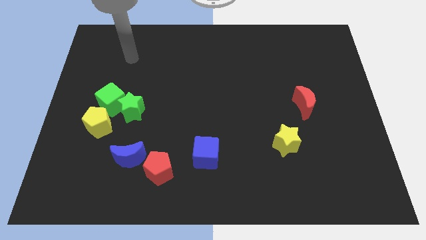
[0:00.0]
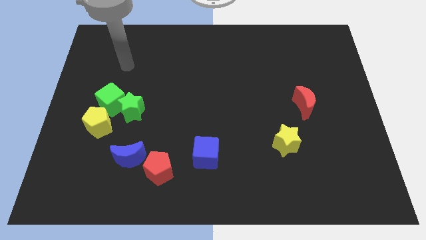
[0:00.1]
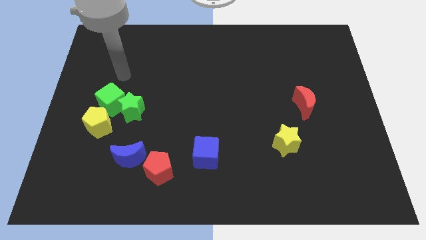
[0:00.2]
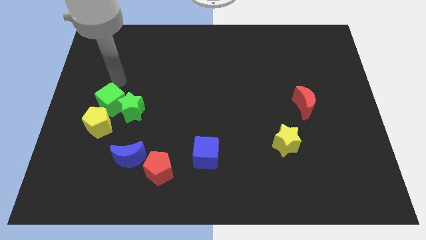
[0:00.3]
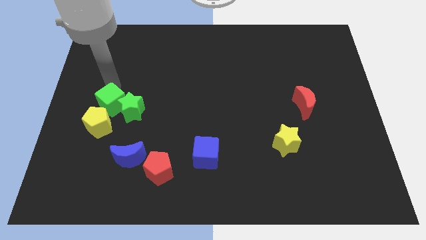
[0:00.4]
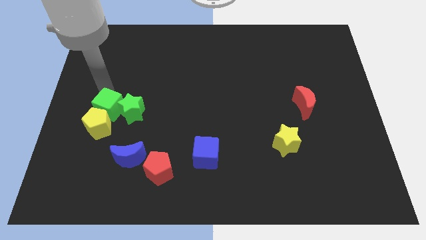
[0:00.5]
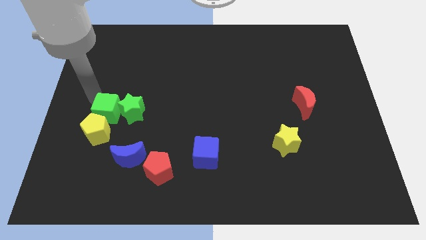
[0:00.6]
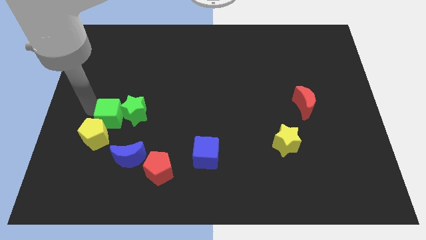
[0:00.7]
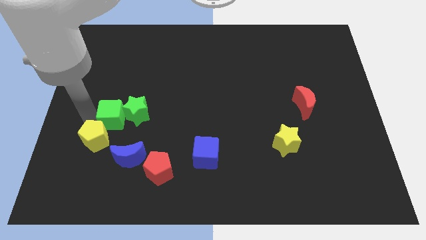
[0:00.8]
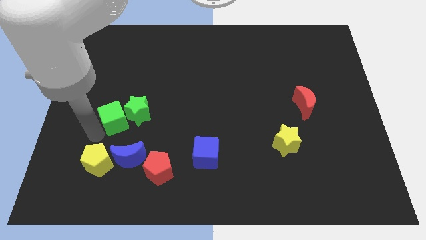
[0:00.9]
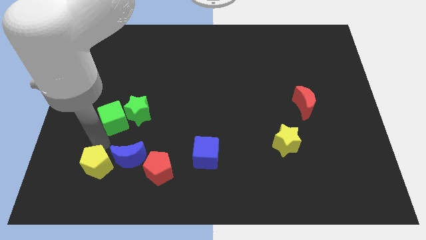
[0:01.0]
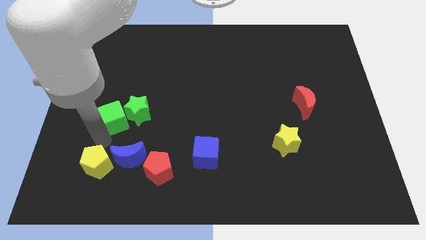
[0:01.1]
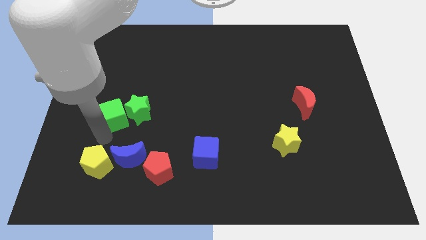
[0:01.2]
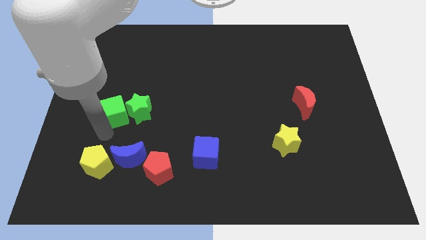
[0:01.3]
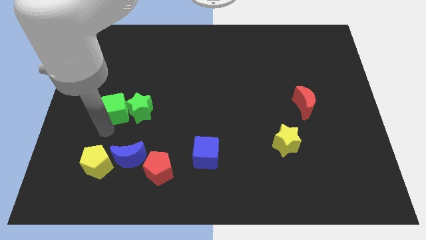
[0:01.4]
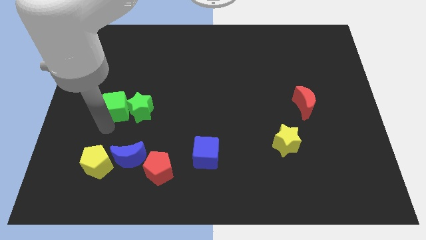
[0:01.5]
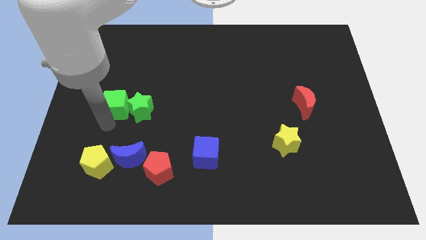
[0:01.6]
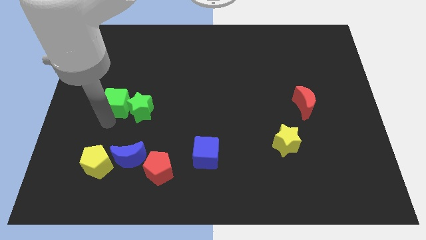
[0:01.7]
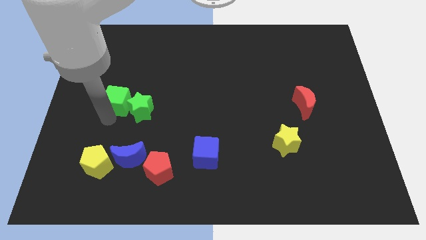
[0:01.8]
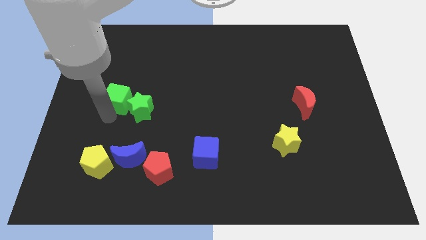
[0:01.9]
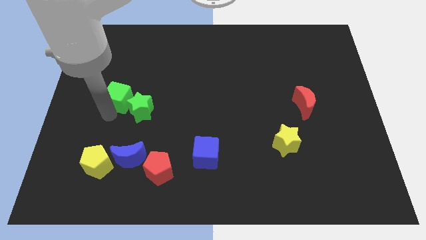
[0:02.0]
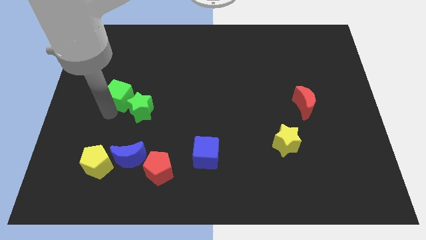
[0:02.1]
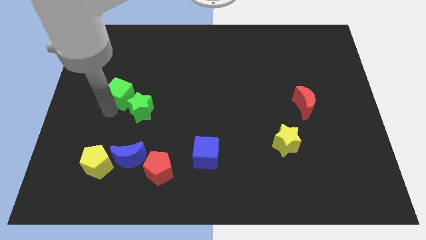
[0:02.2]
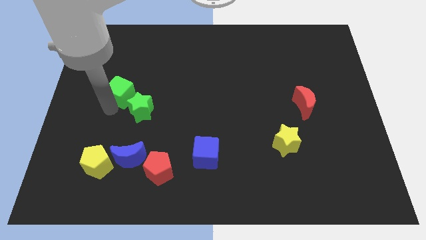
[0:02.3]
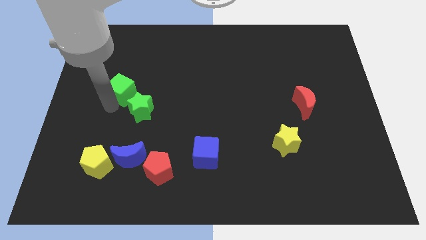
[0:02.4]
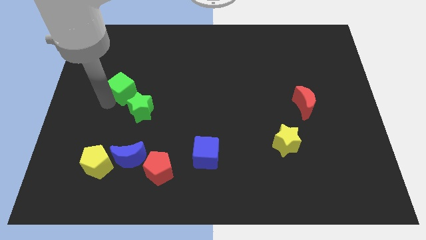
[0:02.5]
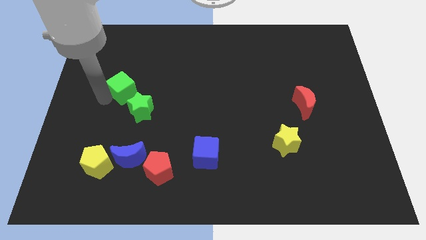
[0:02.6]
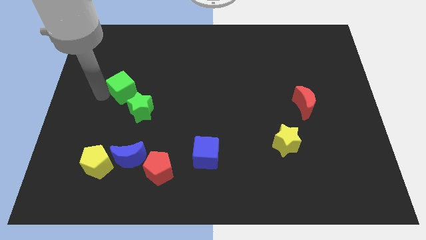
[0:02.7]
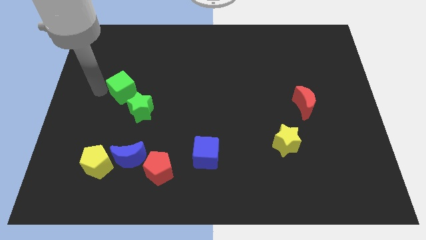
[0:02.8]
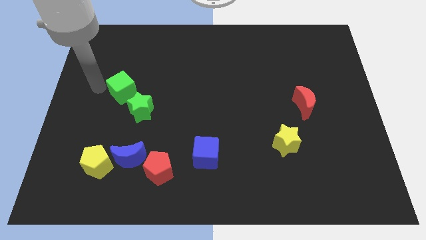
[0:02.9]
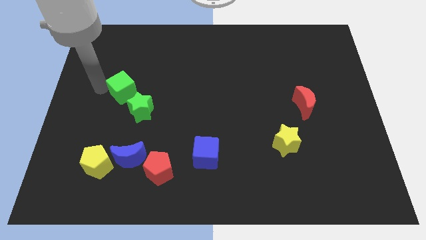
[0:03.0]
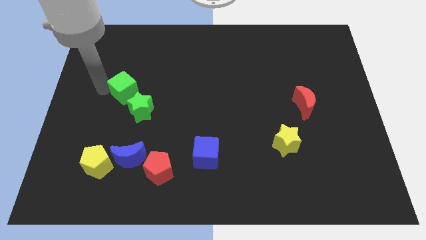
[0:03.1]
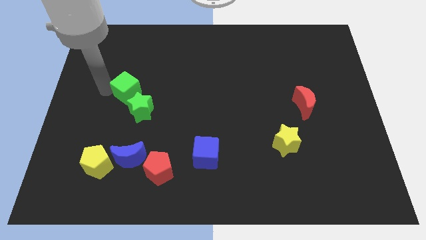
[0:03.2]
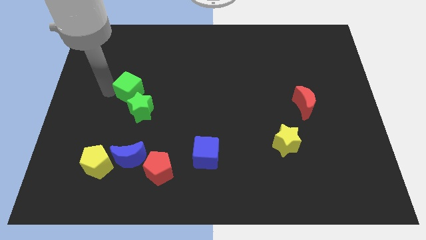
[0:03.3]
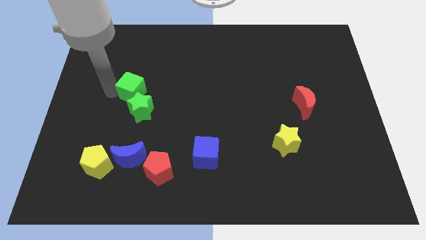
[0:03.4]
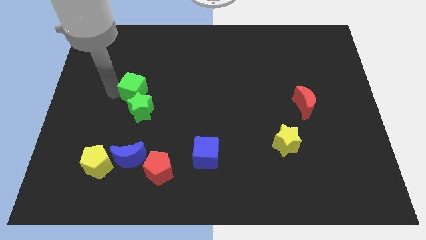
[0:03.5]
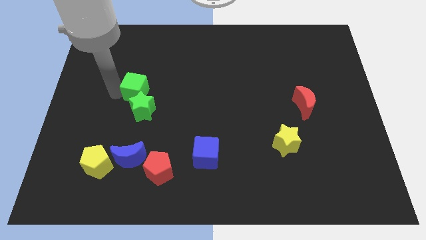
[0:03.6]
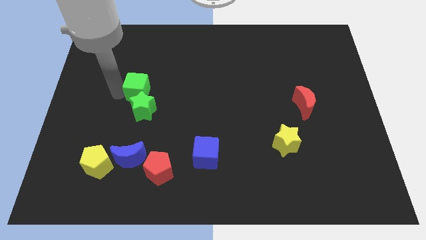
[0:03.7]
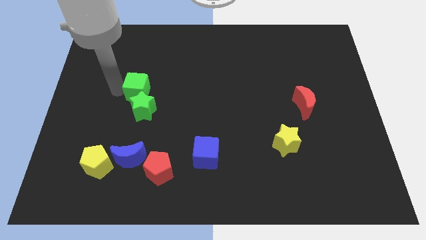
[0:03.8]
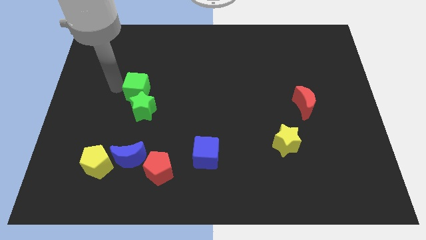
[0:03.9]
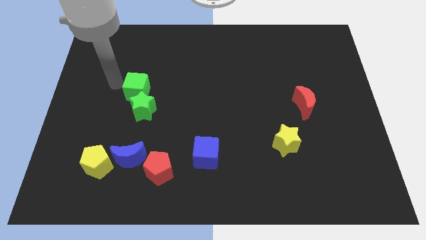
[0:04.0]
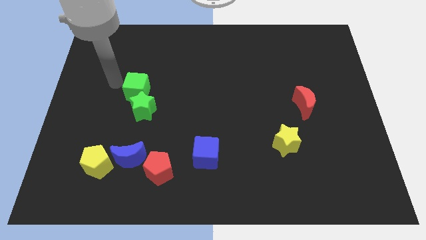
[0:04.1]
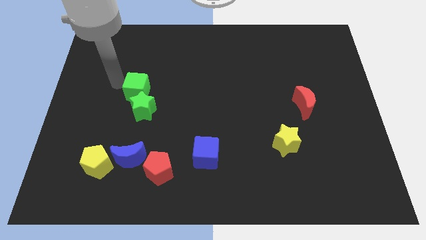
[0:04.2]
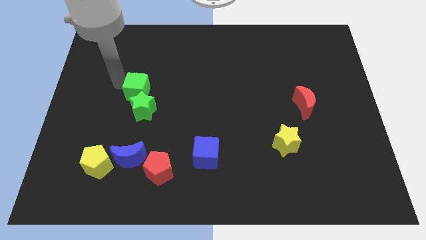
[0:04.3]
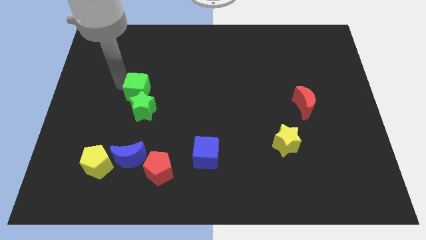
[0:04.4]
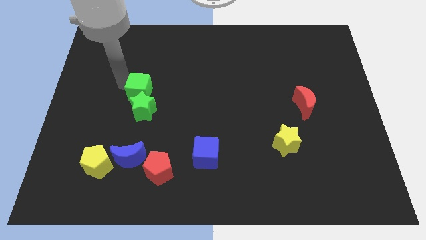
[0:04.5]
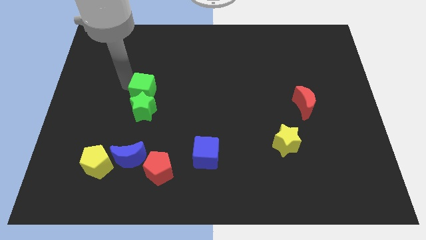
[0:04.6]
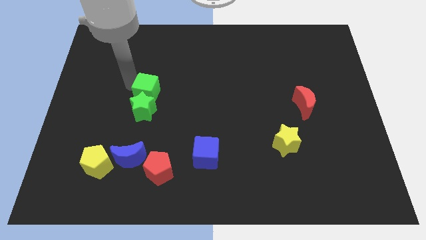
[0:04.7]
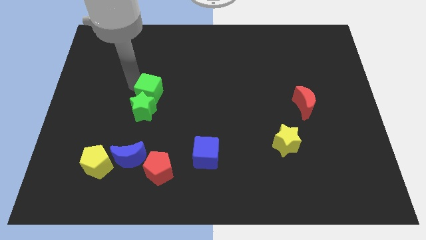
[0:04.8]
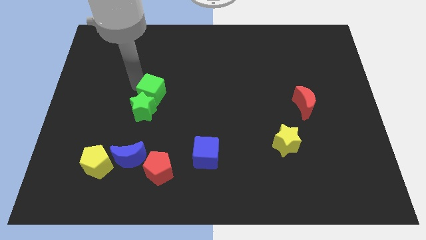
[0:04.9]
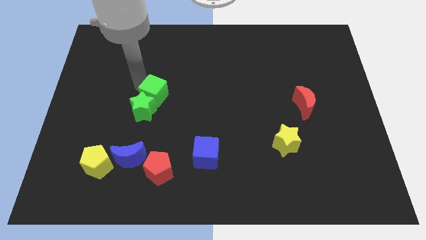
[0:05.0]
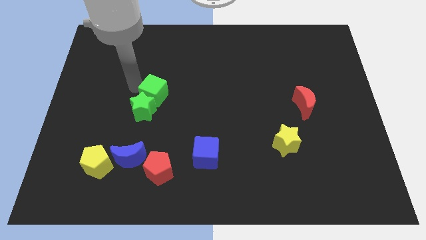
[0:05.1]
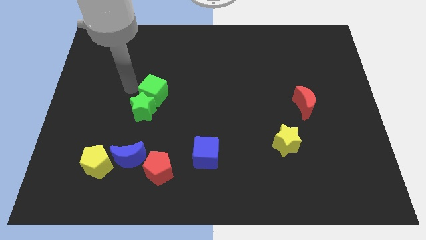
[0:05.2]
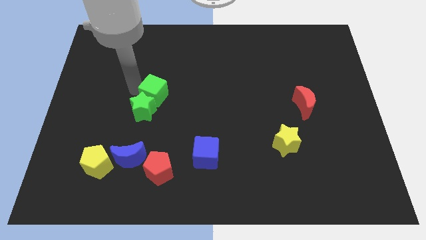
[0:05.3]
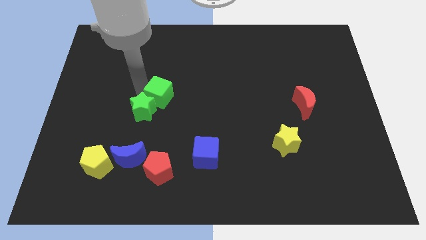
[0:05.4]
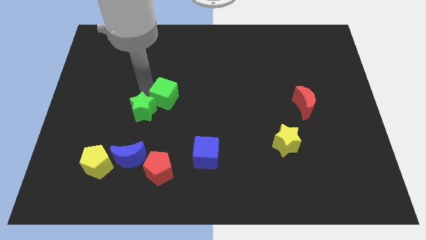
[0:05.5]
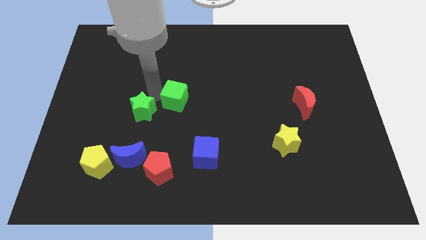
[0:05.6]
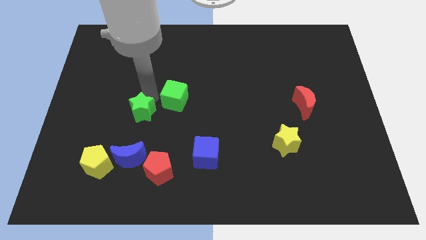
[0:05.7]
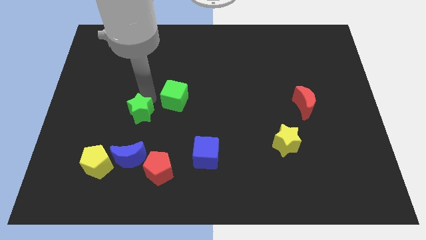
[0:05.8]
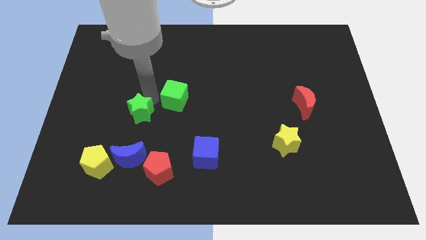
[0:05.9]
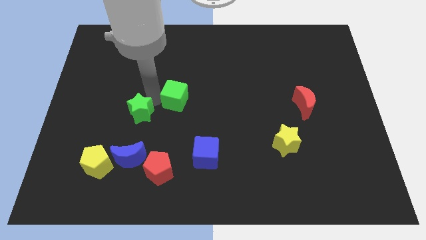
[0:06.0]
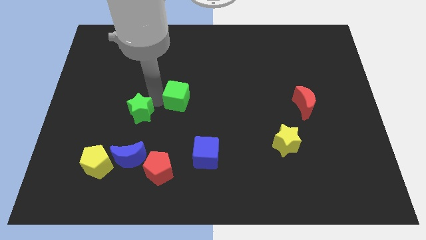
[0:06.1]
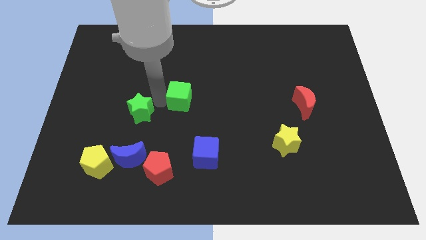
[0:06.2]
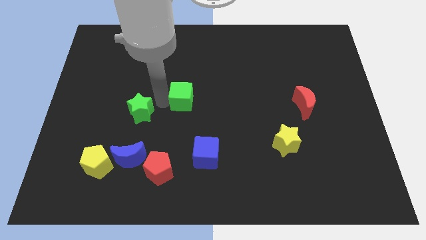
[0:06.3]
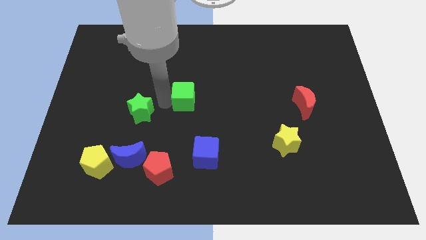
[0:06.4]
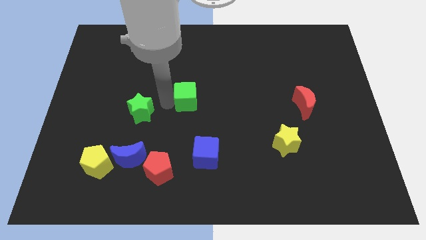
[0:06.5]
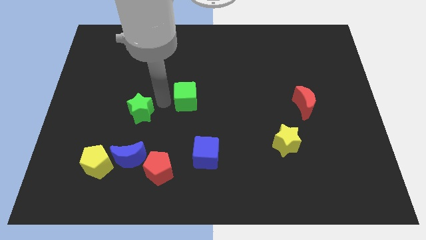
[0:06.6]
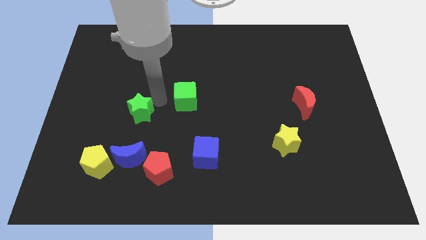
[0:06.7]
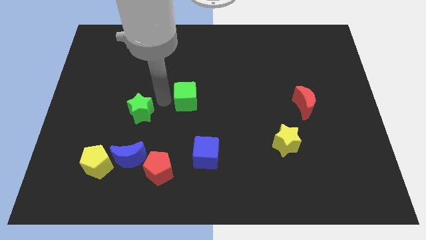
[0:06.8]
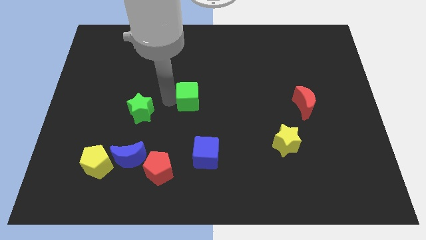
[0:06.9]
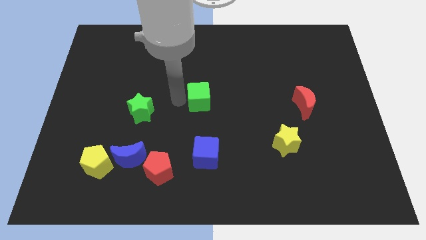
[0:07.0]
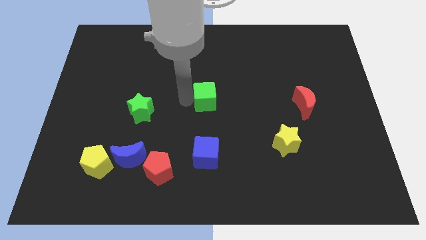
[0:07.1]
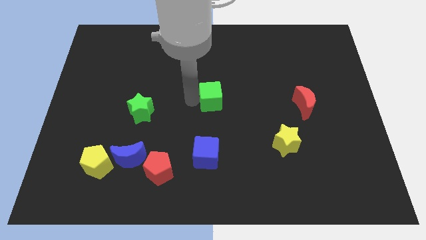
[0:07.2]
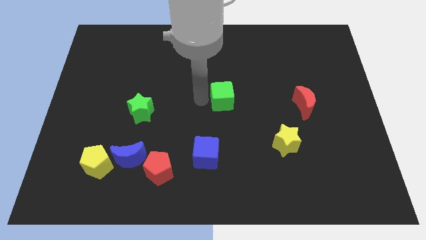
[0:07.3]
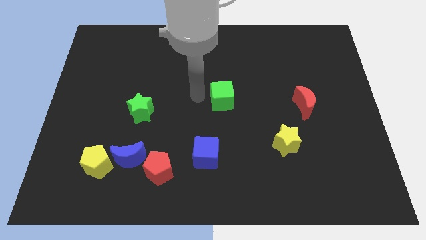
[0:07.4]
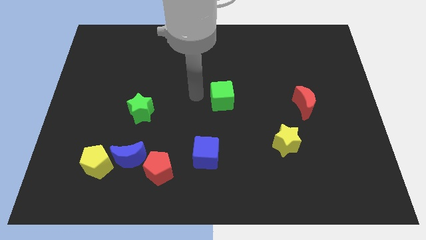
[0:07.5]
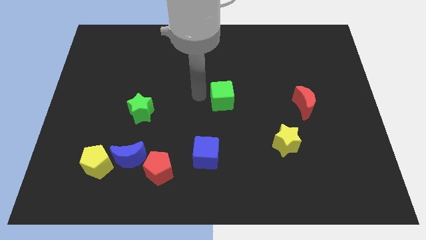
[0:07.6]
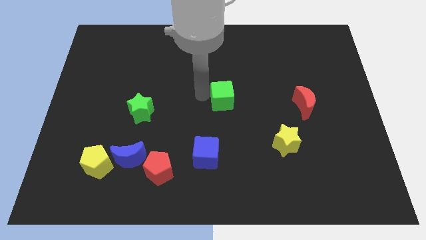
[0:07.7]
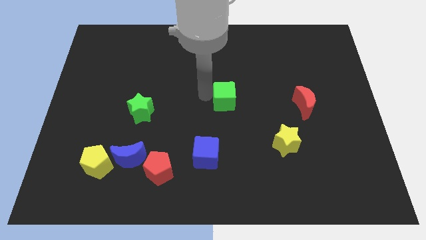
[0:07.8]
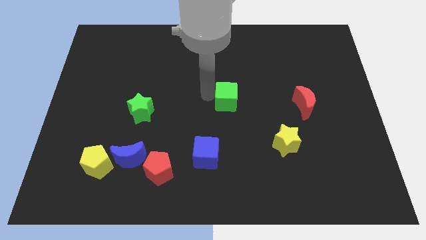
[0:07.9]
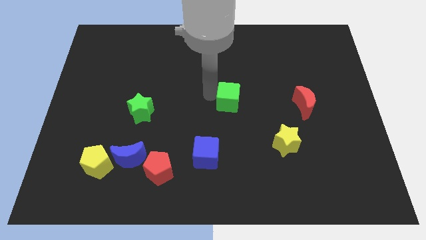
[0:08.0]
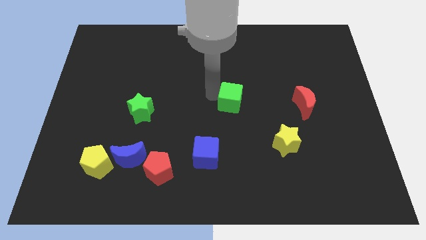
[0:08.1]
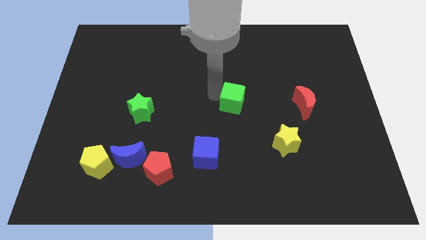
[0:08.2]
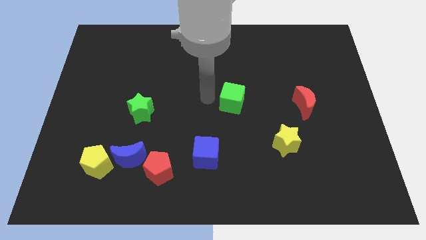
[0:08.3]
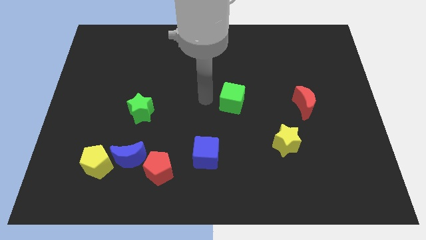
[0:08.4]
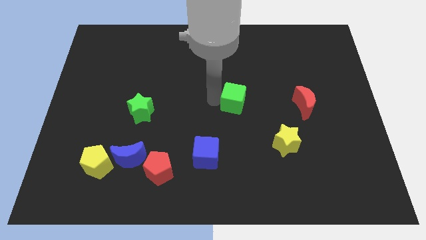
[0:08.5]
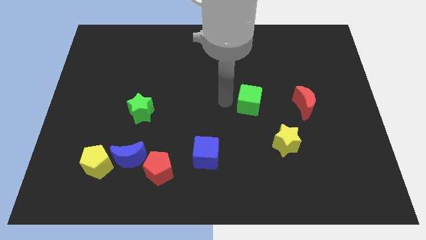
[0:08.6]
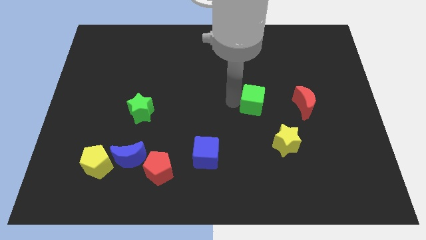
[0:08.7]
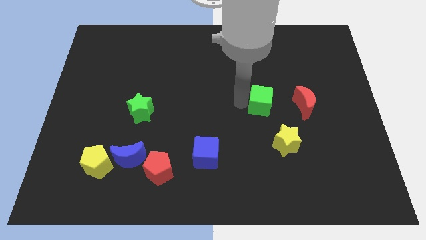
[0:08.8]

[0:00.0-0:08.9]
move the green cube above the yellow star
